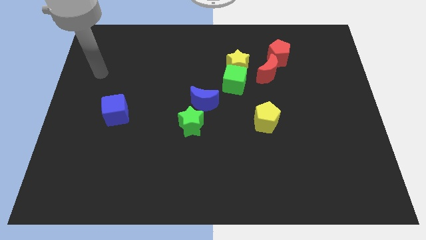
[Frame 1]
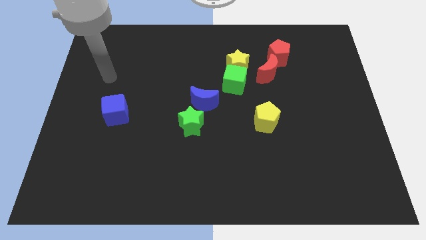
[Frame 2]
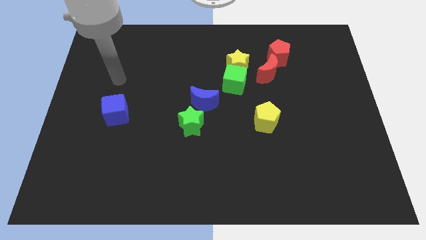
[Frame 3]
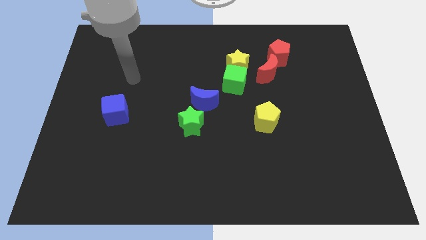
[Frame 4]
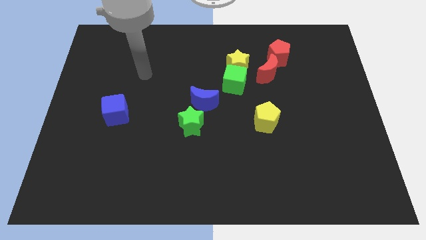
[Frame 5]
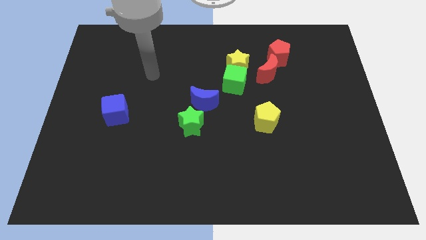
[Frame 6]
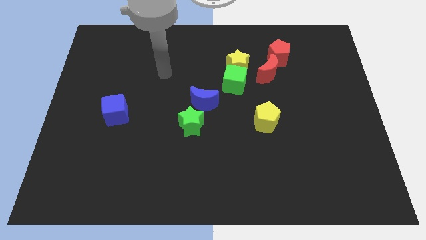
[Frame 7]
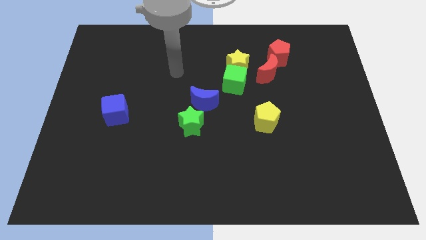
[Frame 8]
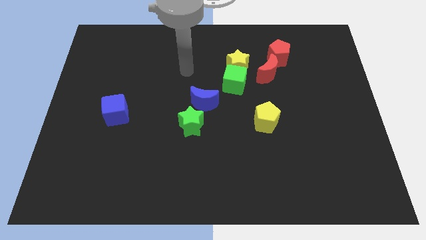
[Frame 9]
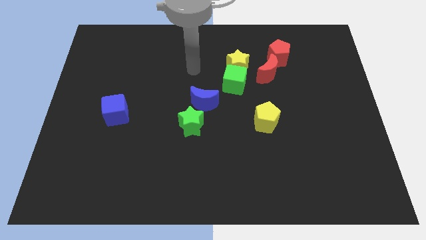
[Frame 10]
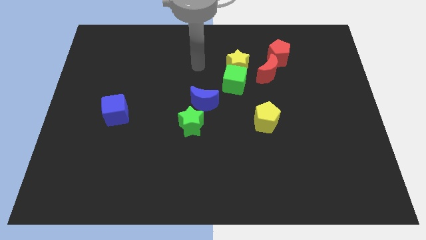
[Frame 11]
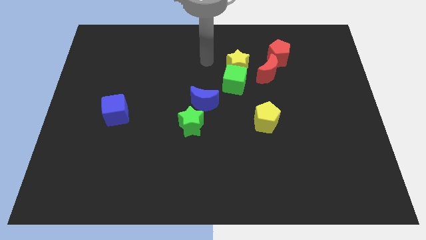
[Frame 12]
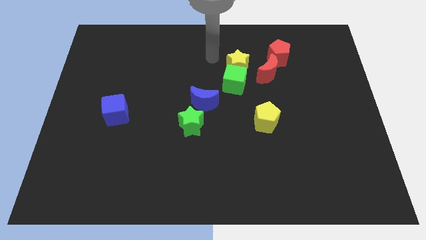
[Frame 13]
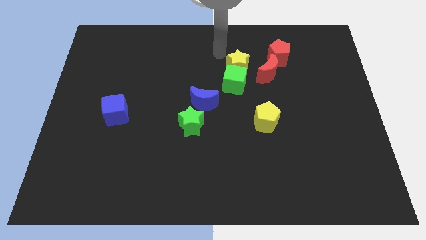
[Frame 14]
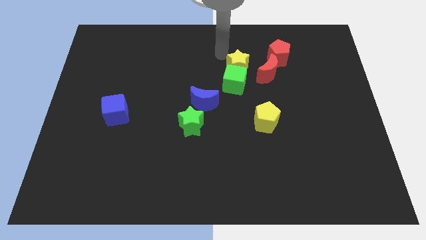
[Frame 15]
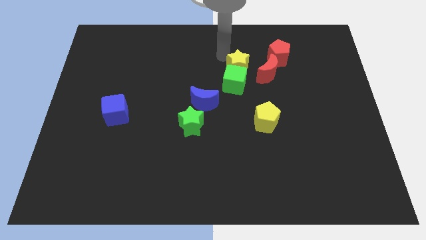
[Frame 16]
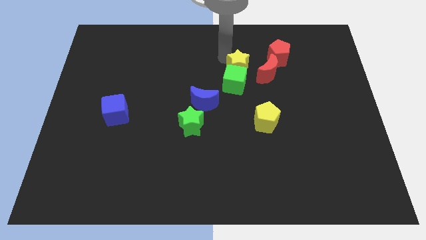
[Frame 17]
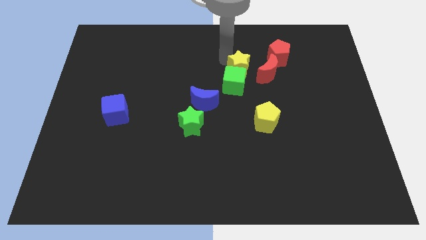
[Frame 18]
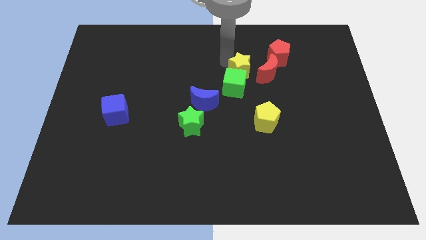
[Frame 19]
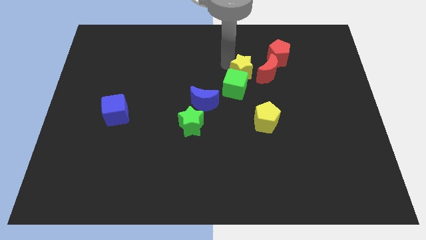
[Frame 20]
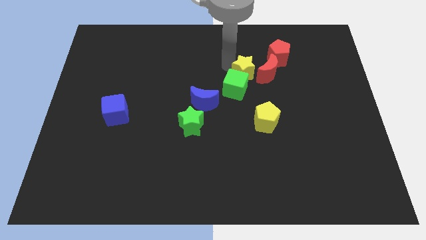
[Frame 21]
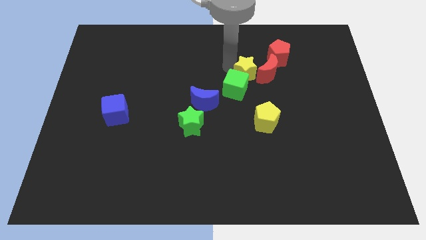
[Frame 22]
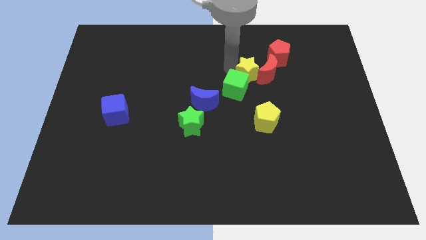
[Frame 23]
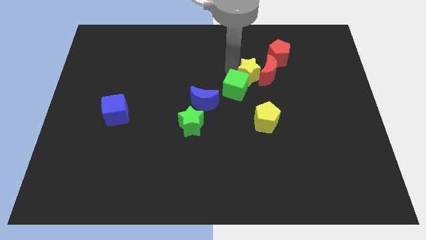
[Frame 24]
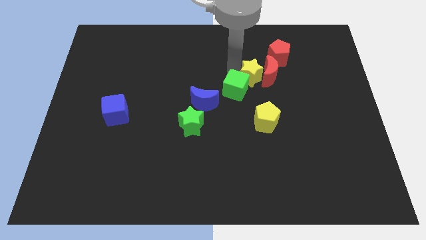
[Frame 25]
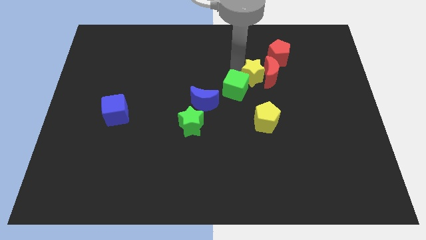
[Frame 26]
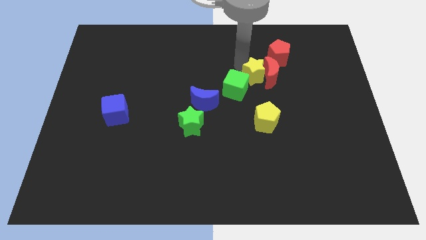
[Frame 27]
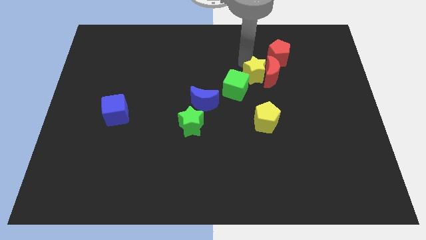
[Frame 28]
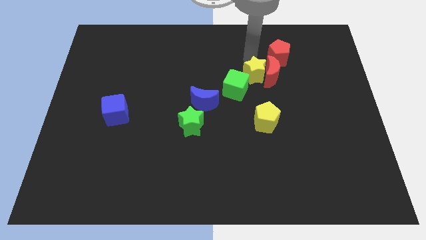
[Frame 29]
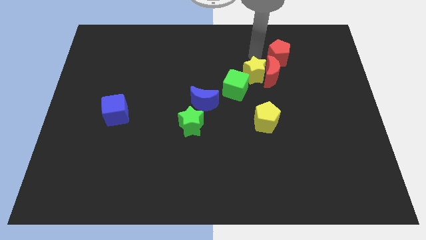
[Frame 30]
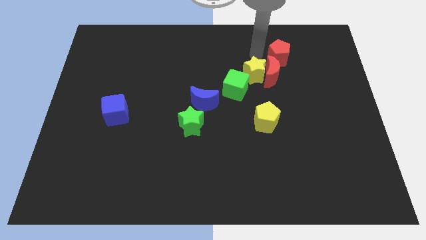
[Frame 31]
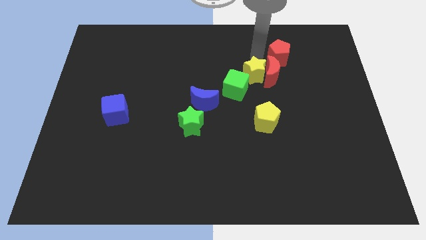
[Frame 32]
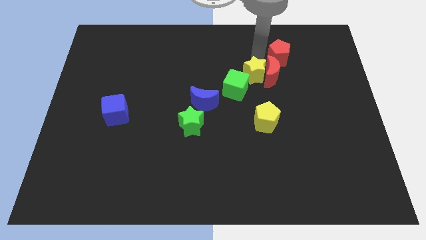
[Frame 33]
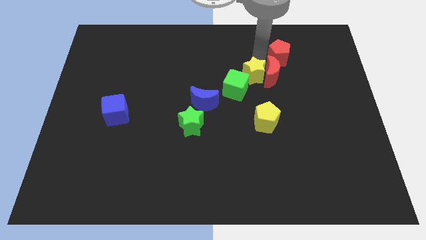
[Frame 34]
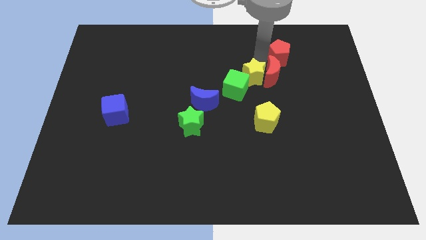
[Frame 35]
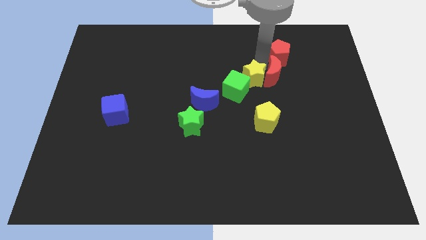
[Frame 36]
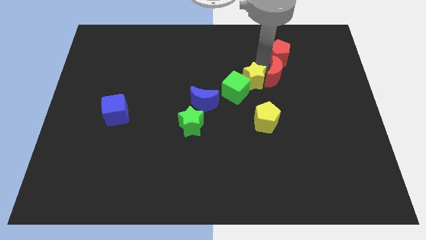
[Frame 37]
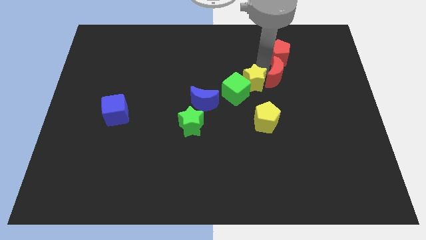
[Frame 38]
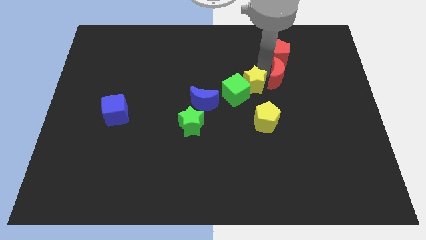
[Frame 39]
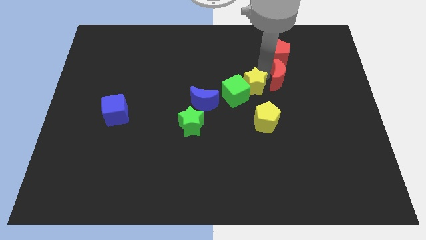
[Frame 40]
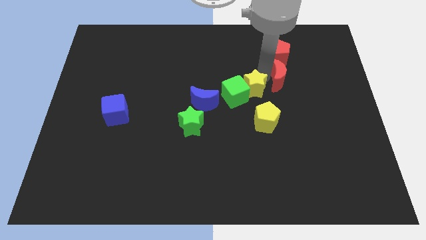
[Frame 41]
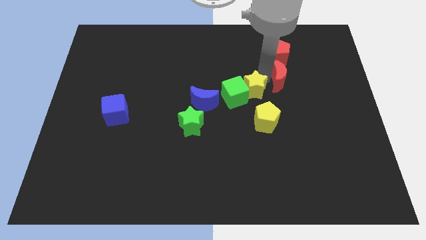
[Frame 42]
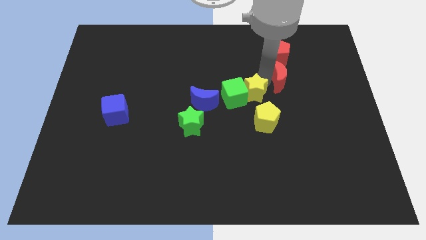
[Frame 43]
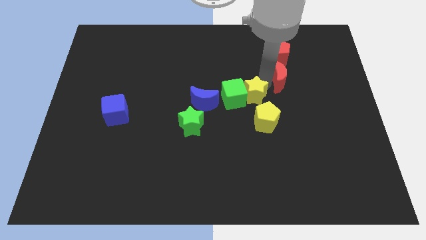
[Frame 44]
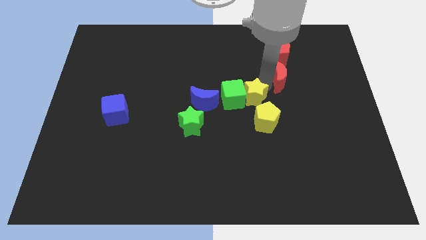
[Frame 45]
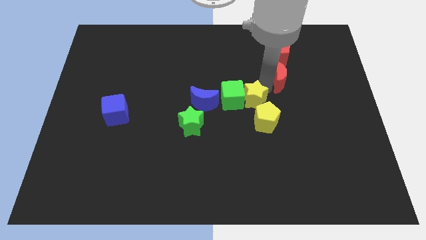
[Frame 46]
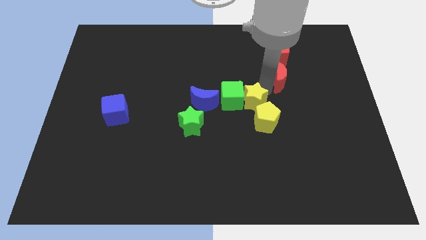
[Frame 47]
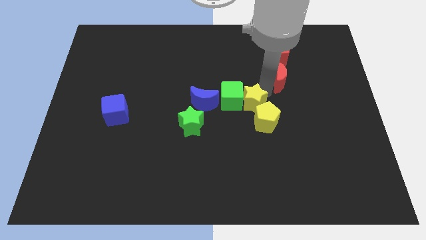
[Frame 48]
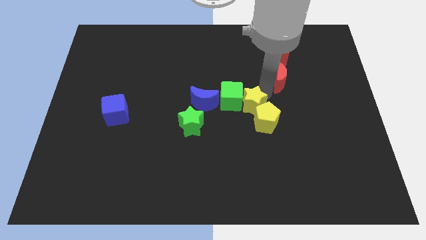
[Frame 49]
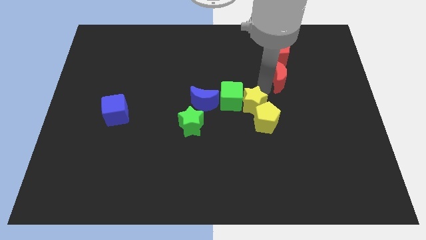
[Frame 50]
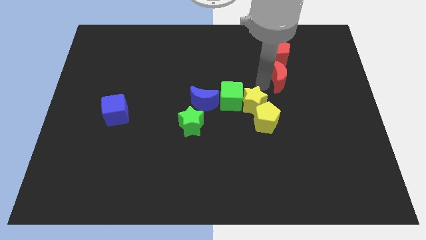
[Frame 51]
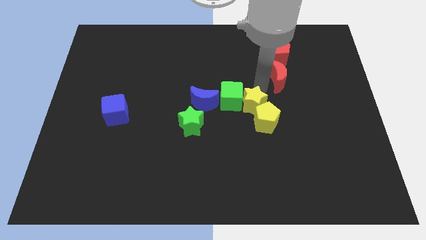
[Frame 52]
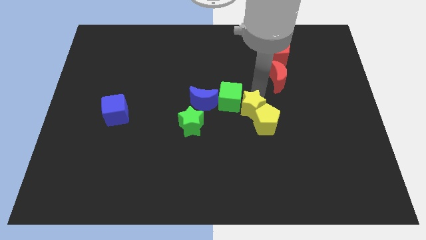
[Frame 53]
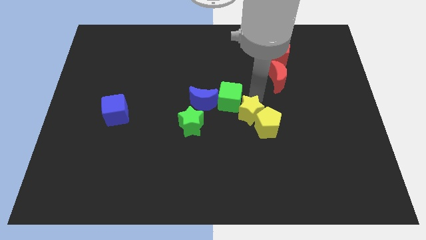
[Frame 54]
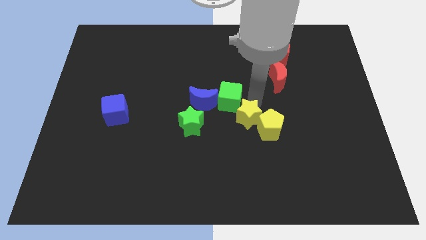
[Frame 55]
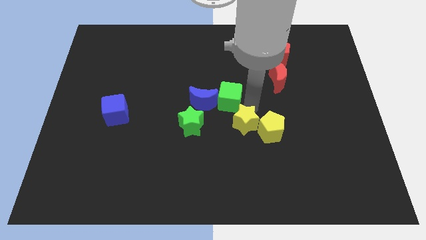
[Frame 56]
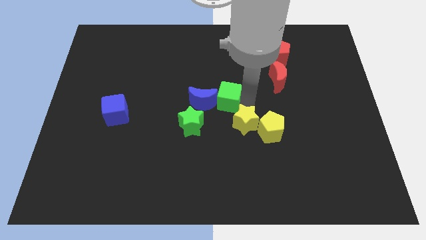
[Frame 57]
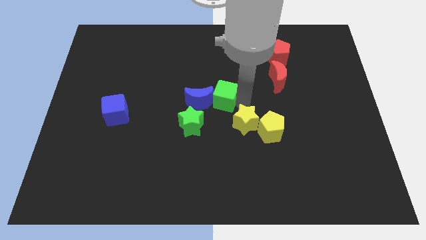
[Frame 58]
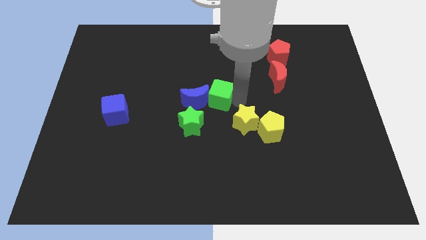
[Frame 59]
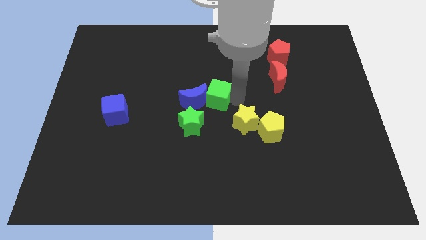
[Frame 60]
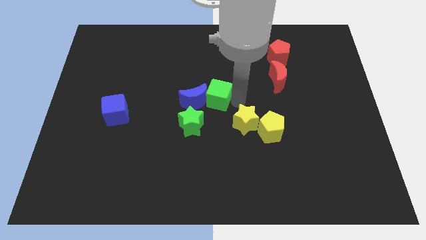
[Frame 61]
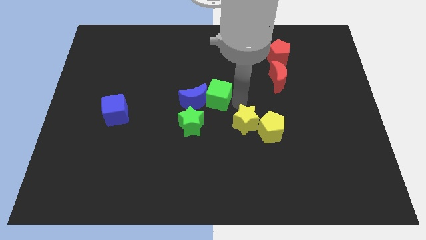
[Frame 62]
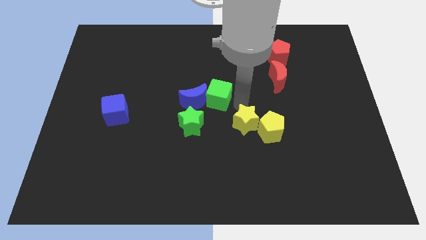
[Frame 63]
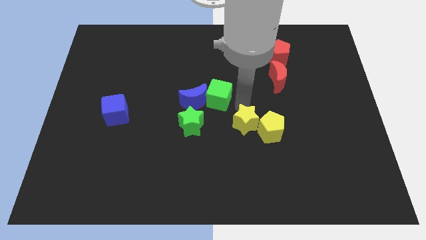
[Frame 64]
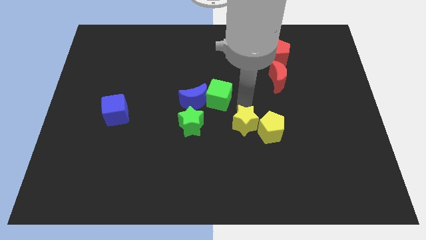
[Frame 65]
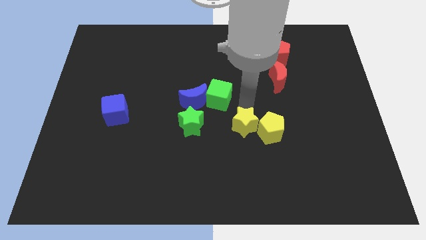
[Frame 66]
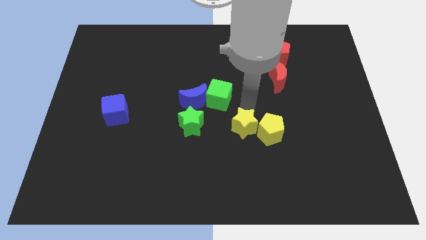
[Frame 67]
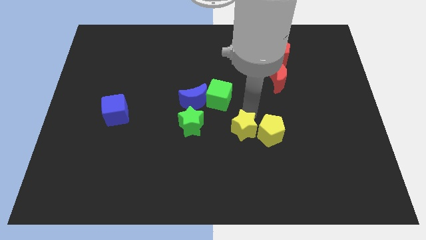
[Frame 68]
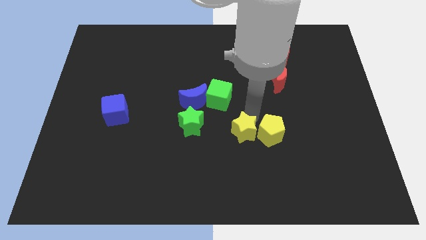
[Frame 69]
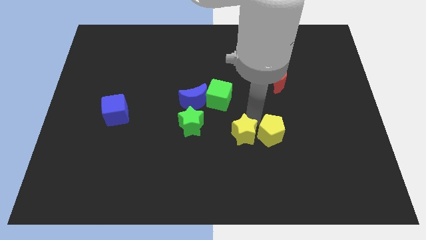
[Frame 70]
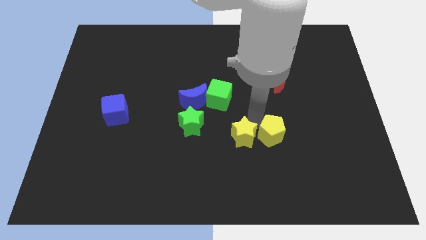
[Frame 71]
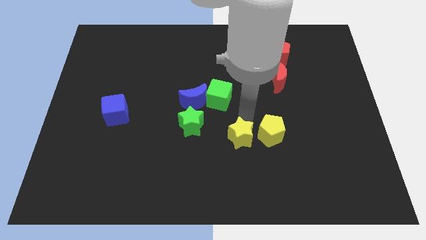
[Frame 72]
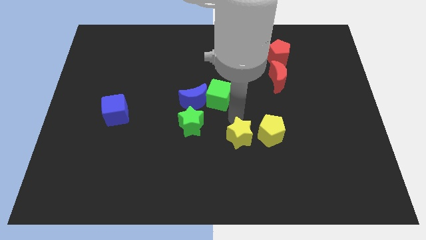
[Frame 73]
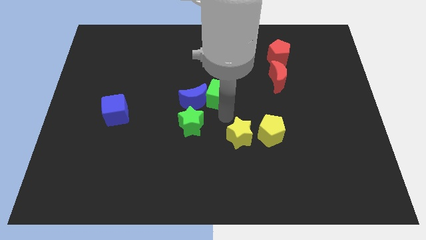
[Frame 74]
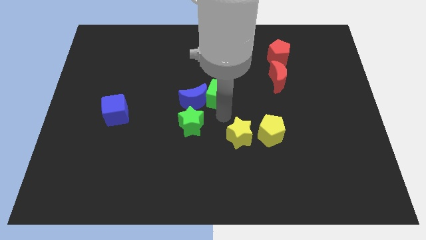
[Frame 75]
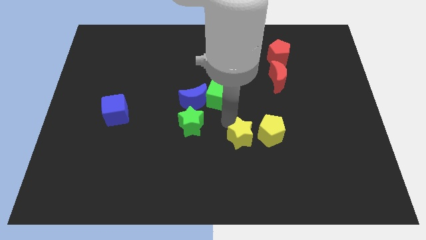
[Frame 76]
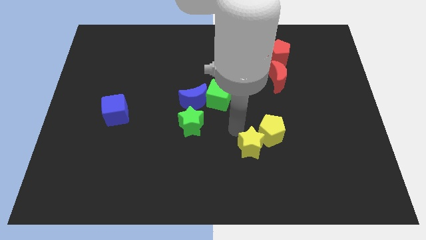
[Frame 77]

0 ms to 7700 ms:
put the yellow star to the bottom side of the yellow pentagon
